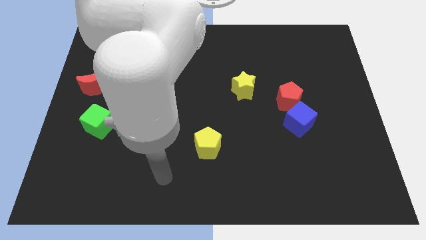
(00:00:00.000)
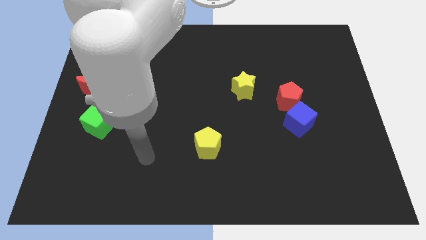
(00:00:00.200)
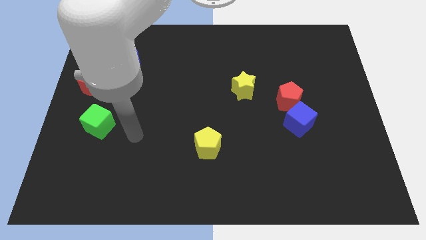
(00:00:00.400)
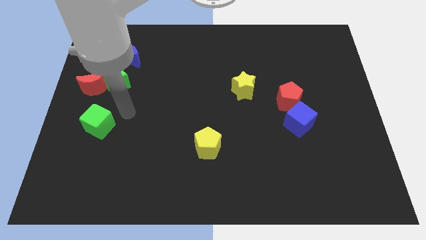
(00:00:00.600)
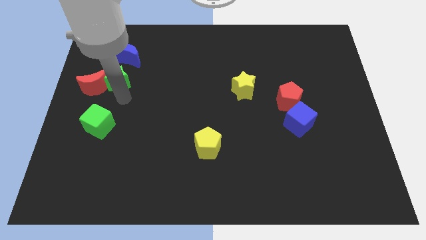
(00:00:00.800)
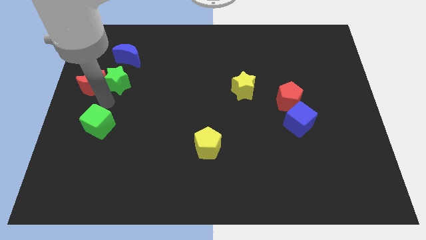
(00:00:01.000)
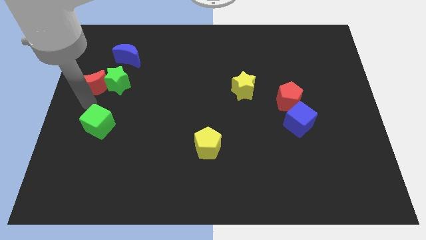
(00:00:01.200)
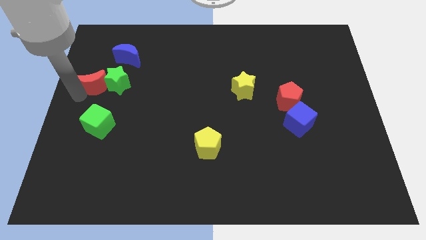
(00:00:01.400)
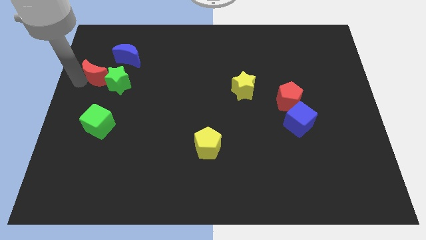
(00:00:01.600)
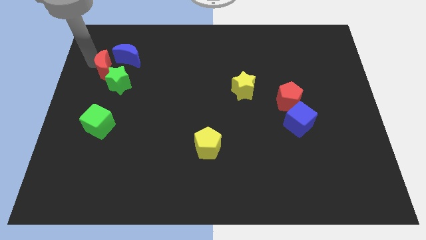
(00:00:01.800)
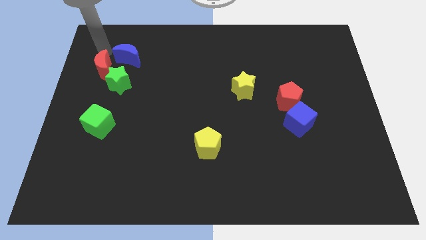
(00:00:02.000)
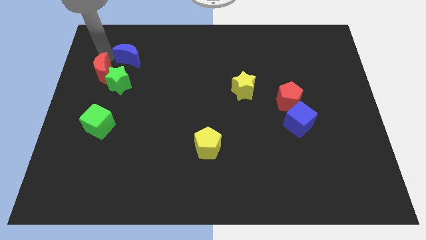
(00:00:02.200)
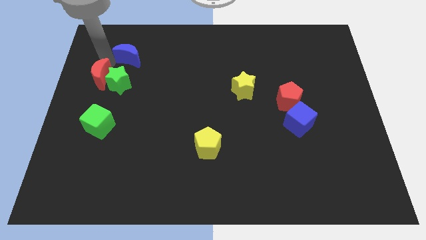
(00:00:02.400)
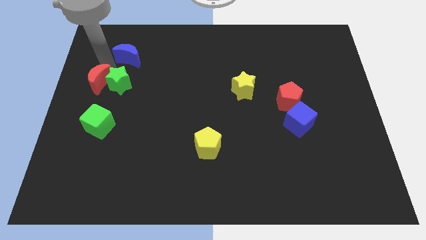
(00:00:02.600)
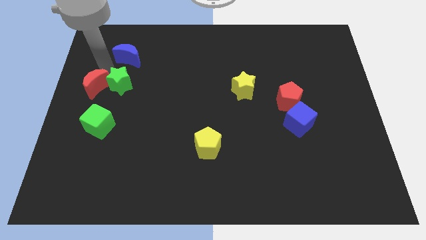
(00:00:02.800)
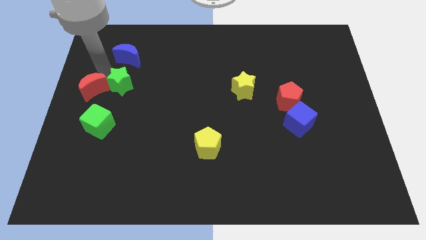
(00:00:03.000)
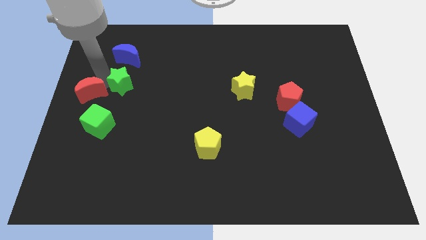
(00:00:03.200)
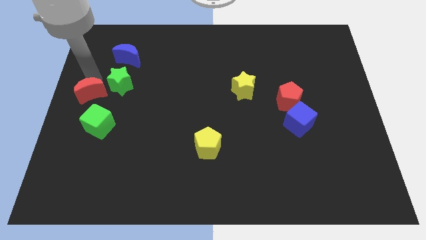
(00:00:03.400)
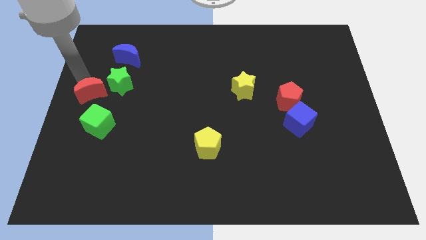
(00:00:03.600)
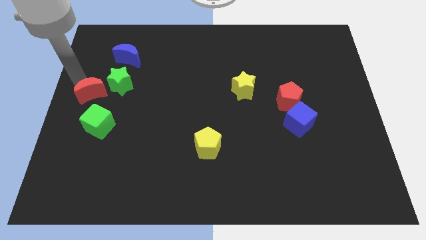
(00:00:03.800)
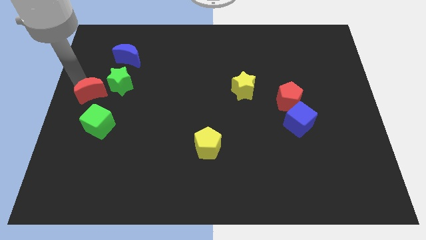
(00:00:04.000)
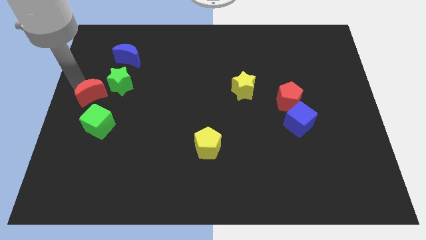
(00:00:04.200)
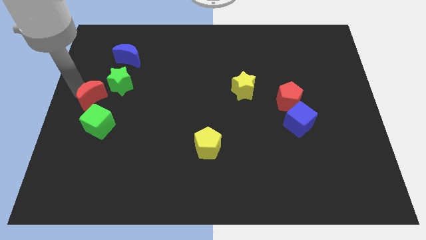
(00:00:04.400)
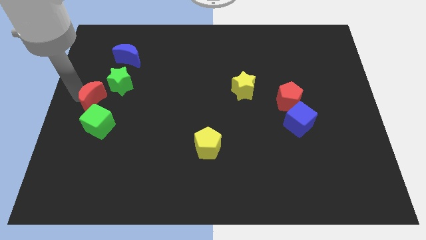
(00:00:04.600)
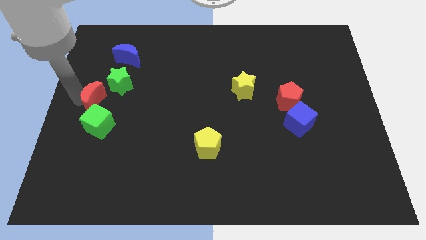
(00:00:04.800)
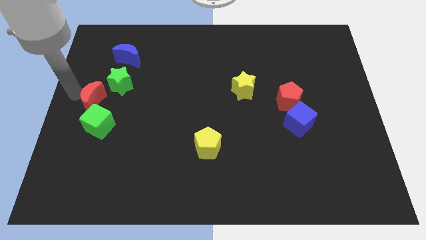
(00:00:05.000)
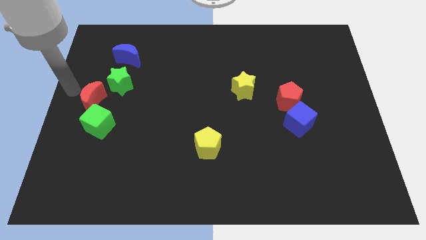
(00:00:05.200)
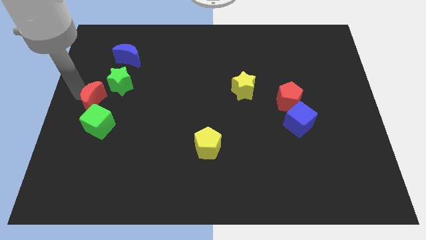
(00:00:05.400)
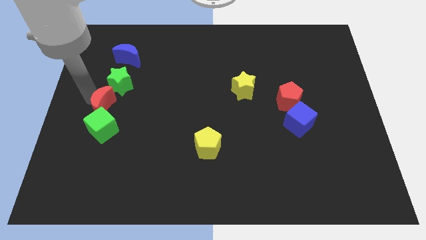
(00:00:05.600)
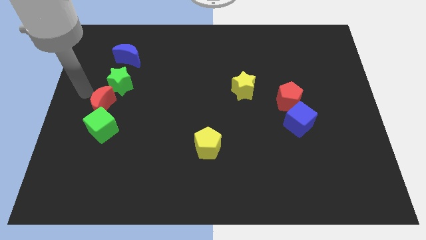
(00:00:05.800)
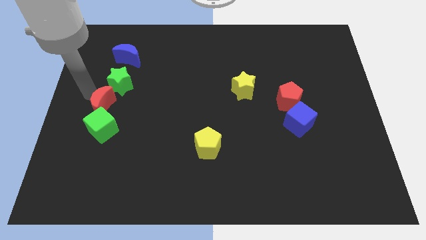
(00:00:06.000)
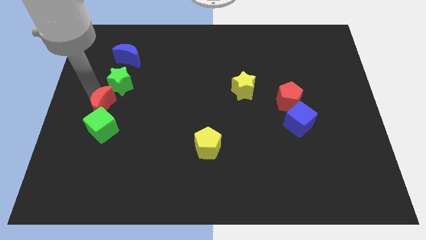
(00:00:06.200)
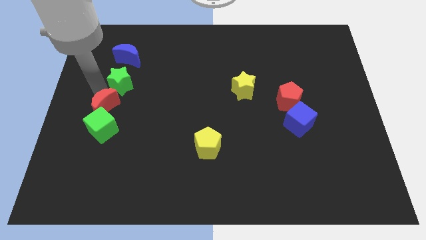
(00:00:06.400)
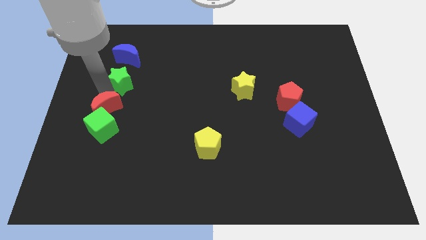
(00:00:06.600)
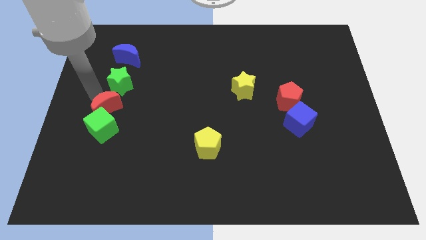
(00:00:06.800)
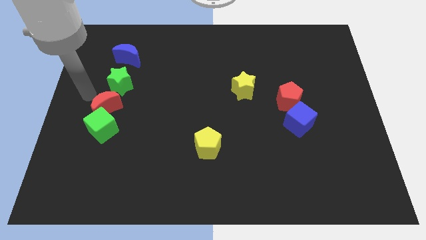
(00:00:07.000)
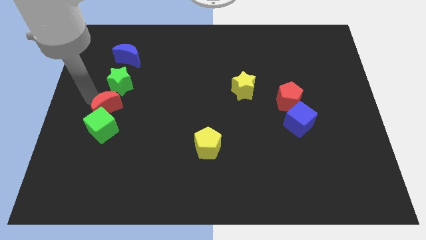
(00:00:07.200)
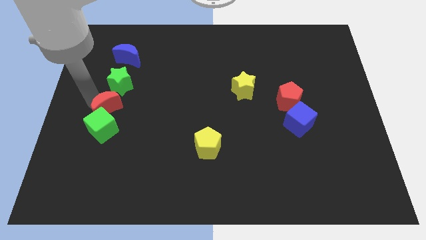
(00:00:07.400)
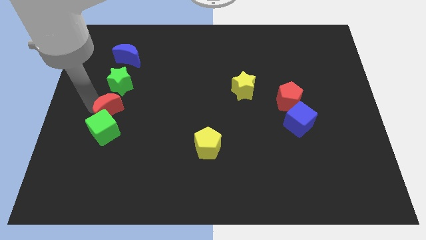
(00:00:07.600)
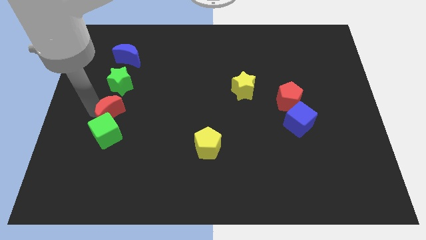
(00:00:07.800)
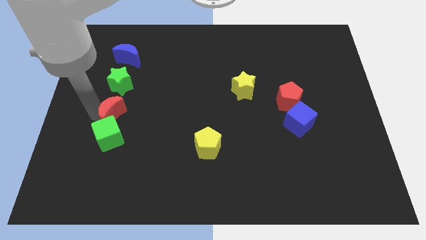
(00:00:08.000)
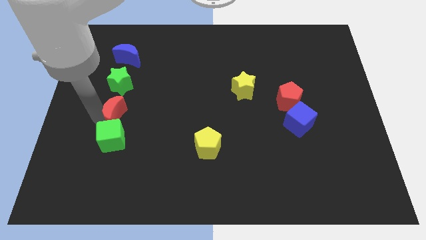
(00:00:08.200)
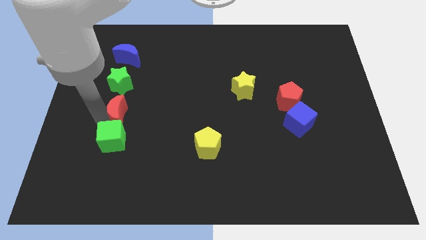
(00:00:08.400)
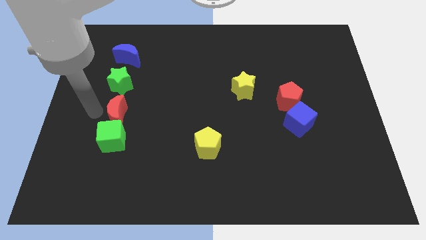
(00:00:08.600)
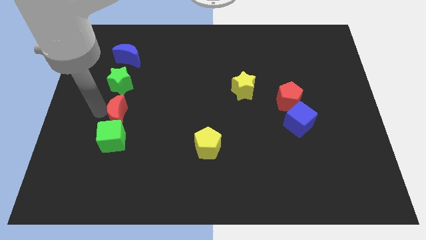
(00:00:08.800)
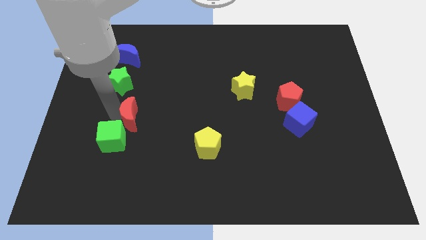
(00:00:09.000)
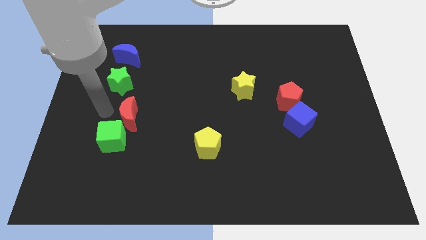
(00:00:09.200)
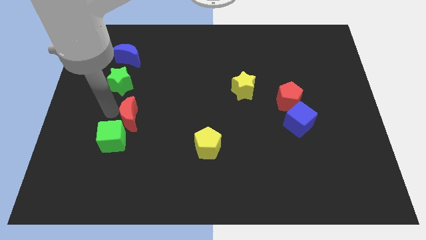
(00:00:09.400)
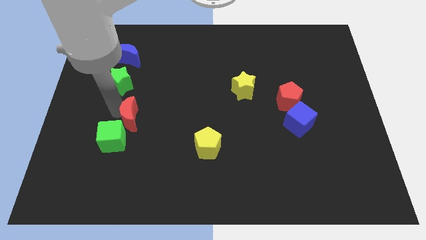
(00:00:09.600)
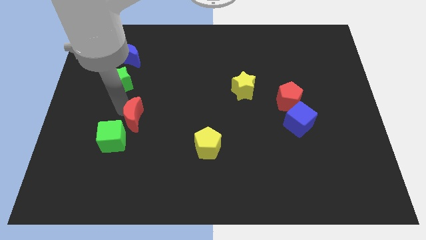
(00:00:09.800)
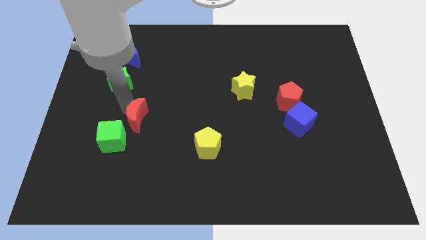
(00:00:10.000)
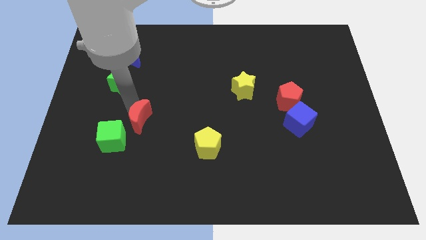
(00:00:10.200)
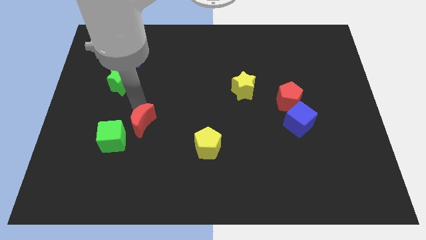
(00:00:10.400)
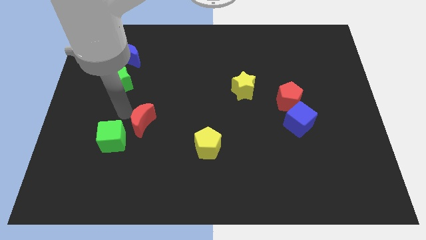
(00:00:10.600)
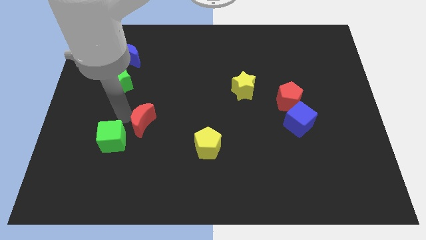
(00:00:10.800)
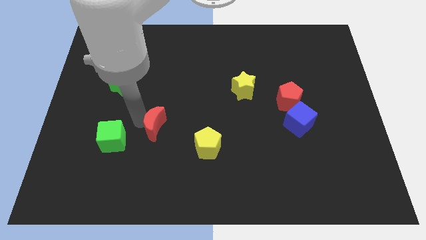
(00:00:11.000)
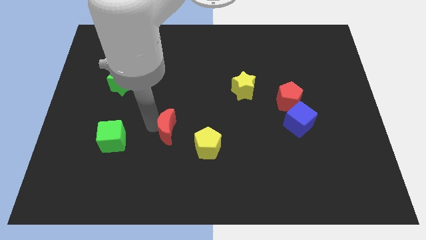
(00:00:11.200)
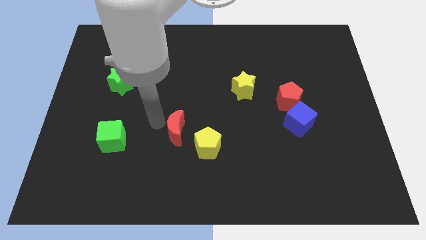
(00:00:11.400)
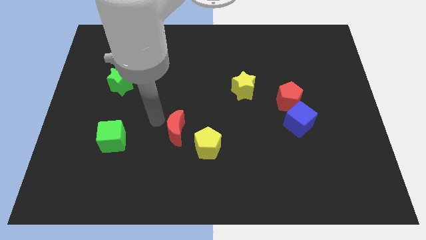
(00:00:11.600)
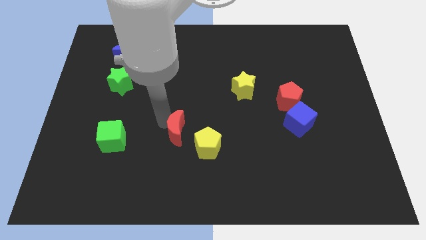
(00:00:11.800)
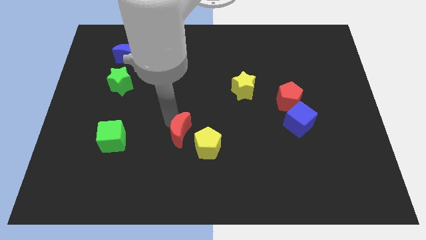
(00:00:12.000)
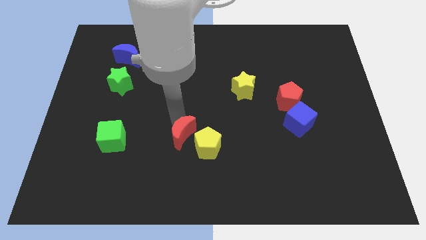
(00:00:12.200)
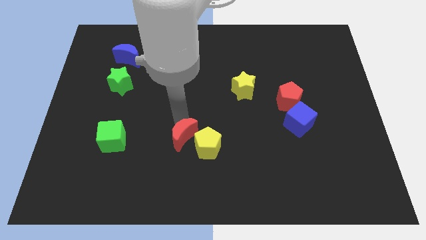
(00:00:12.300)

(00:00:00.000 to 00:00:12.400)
slide the red moon towards the yellow pentagon
